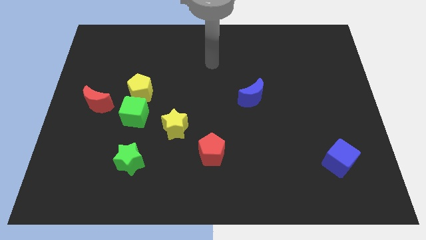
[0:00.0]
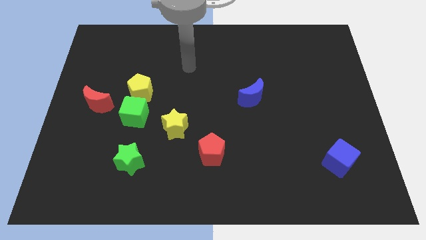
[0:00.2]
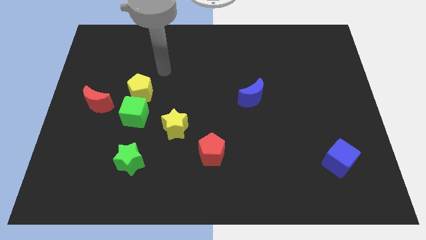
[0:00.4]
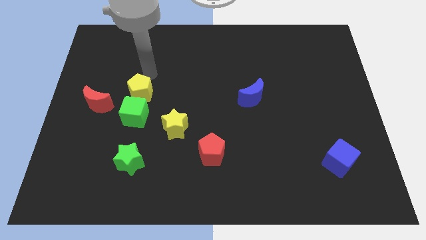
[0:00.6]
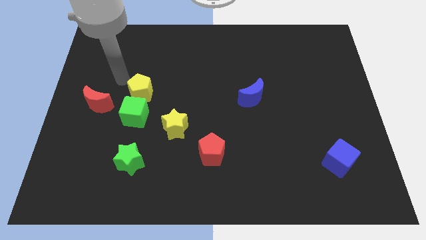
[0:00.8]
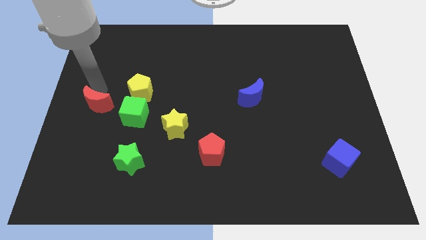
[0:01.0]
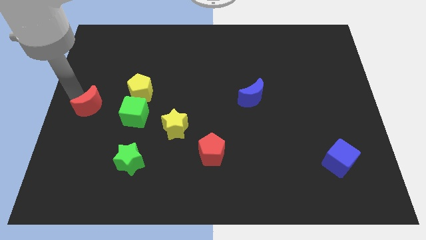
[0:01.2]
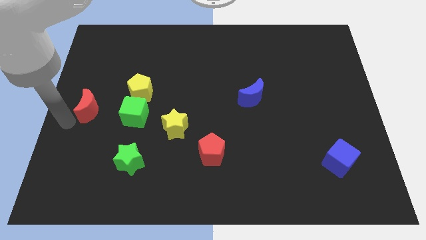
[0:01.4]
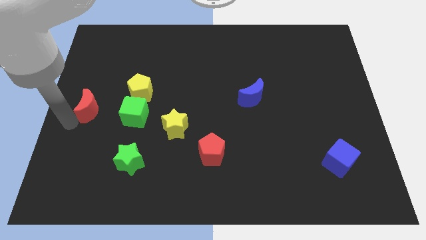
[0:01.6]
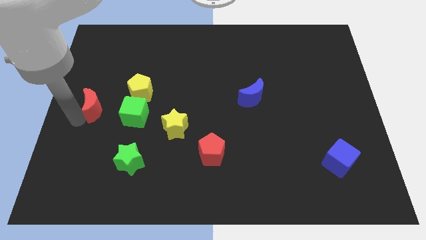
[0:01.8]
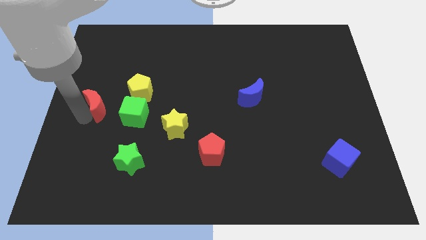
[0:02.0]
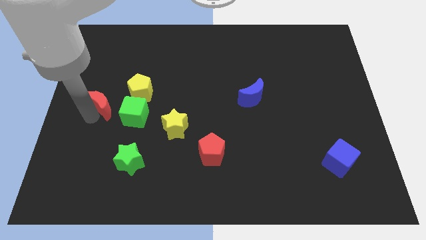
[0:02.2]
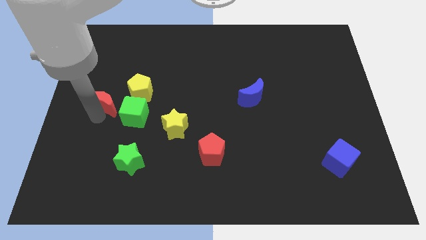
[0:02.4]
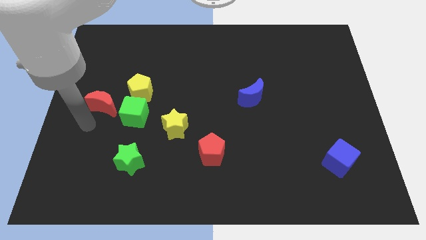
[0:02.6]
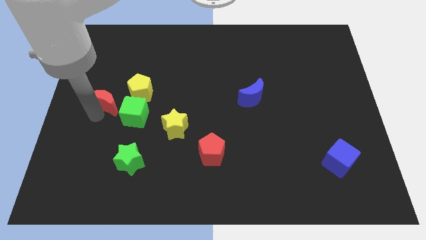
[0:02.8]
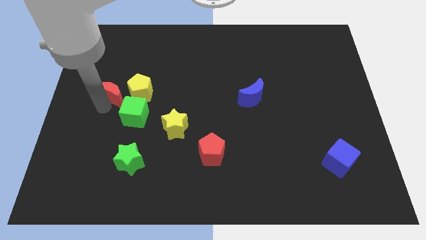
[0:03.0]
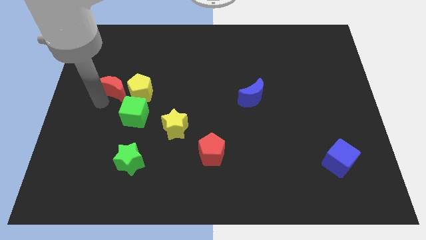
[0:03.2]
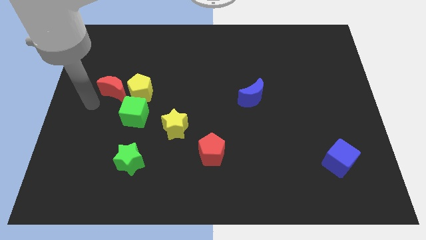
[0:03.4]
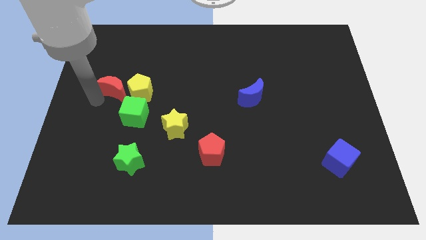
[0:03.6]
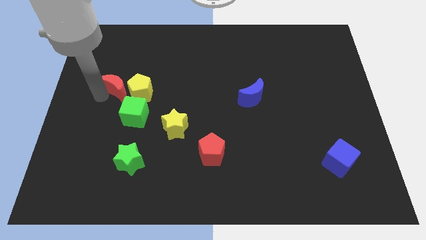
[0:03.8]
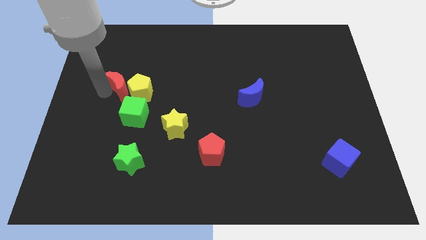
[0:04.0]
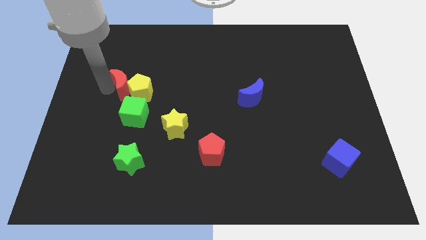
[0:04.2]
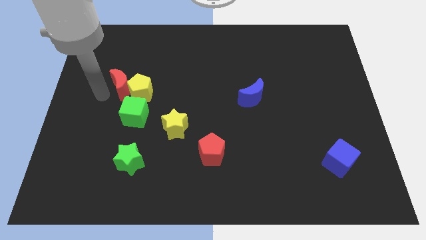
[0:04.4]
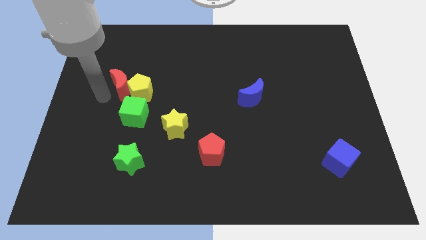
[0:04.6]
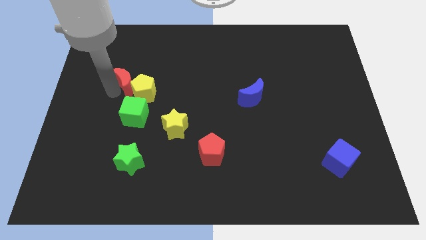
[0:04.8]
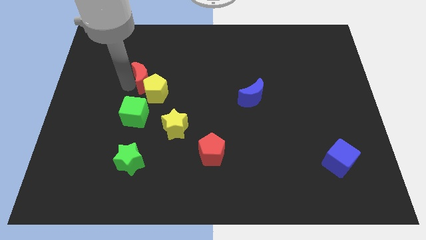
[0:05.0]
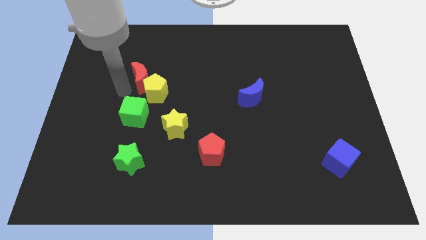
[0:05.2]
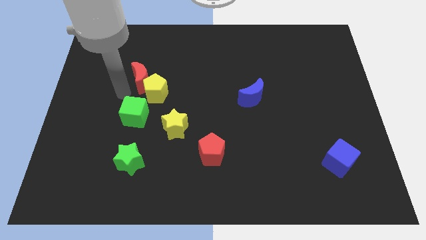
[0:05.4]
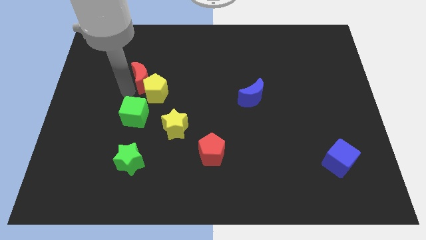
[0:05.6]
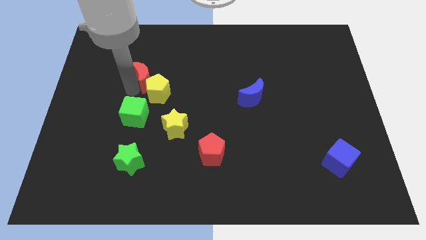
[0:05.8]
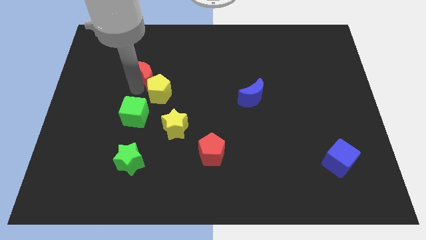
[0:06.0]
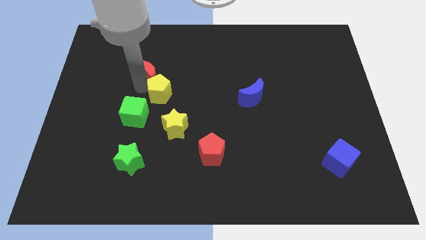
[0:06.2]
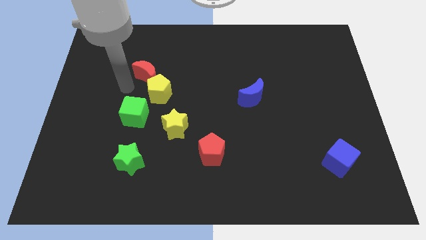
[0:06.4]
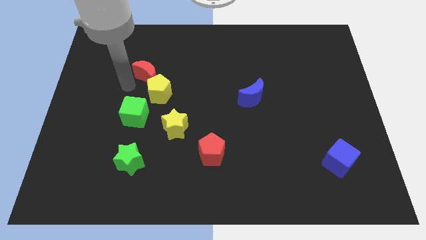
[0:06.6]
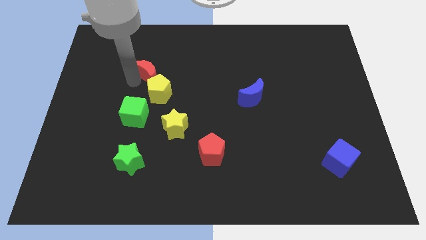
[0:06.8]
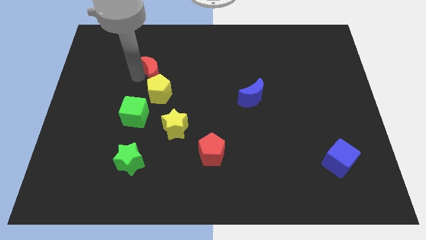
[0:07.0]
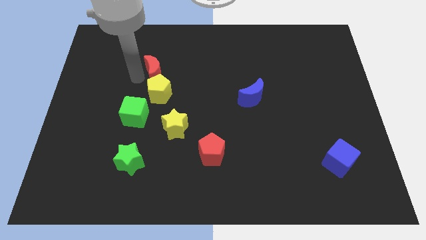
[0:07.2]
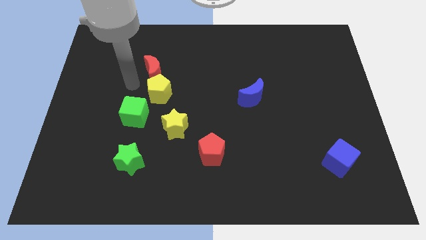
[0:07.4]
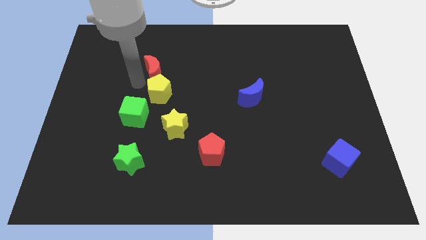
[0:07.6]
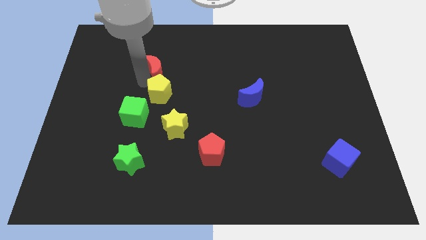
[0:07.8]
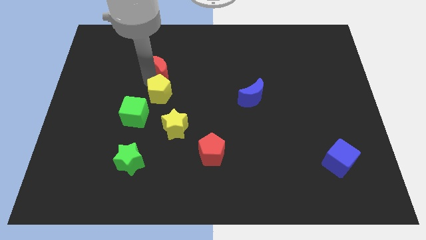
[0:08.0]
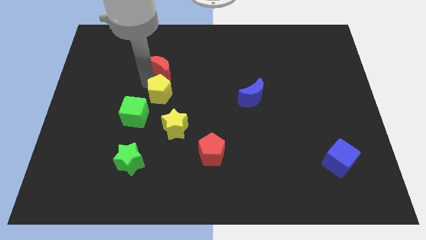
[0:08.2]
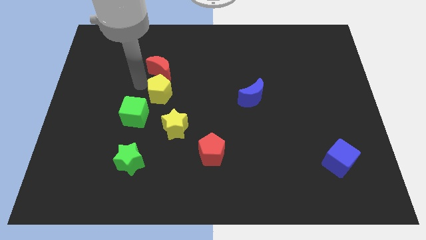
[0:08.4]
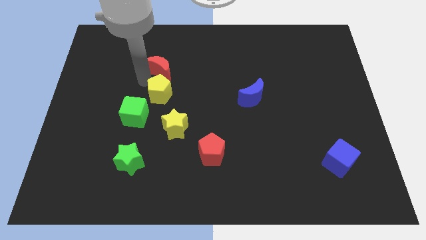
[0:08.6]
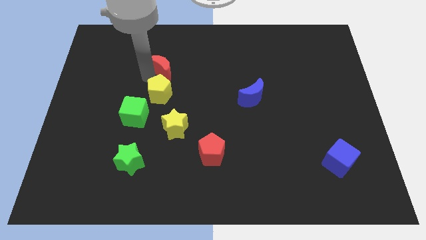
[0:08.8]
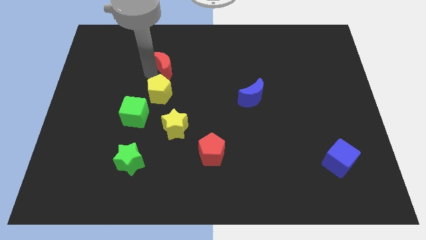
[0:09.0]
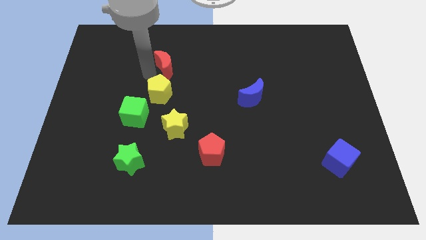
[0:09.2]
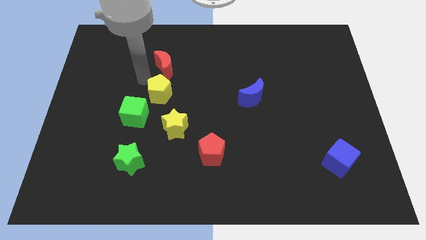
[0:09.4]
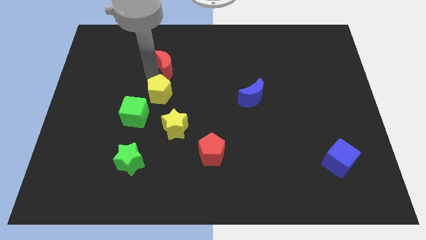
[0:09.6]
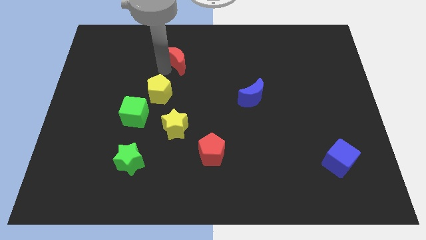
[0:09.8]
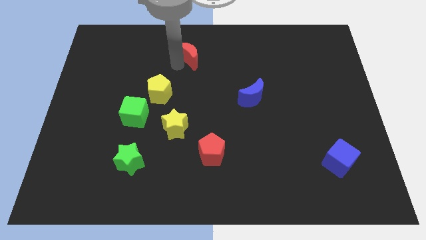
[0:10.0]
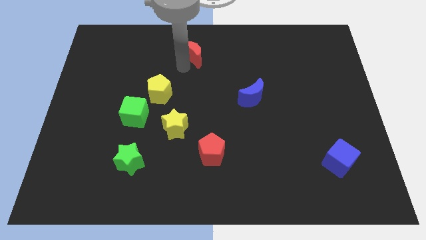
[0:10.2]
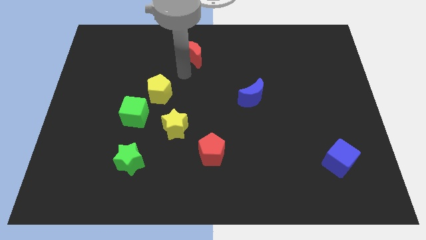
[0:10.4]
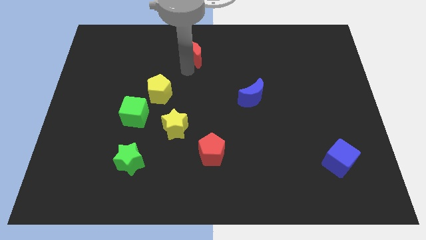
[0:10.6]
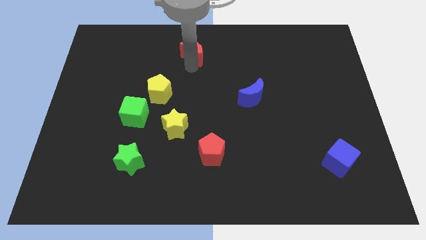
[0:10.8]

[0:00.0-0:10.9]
put the red moon to the top

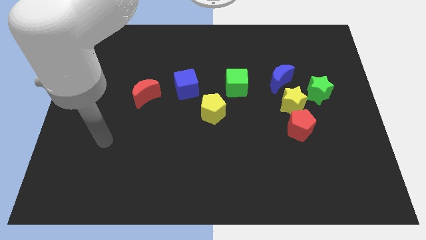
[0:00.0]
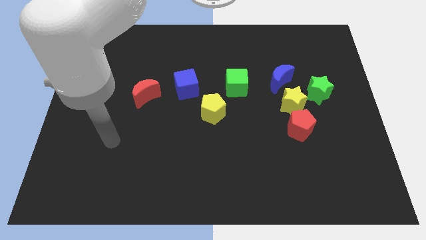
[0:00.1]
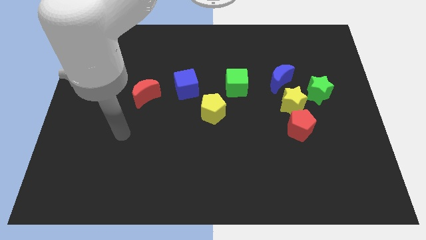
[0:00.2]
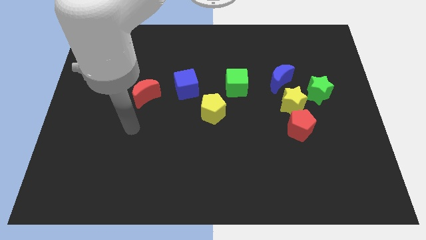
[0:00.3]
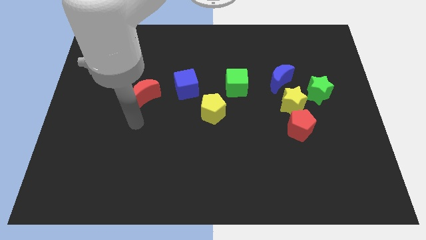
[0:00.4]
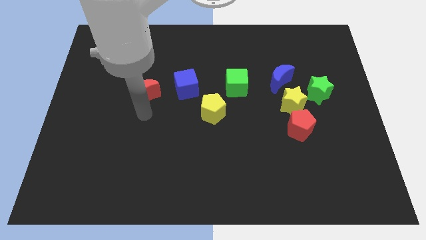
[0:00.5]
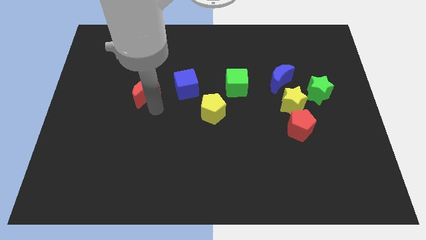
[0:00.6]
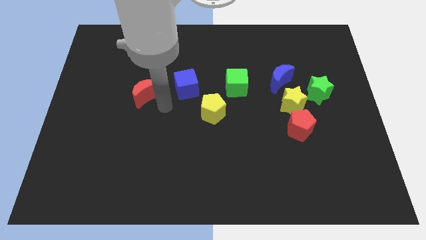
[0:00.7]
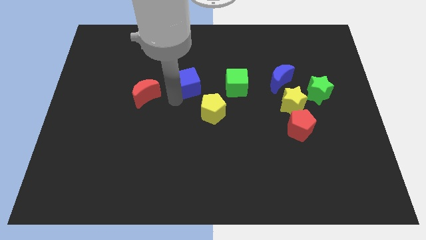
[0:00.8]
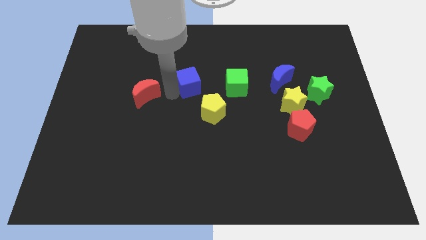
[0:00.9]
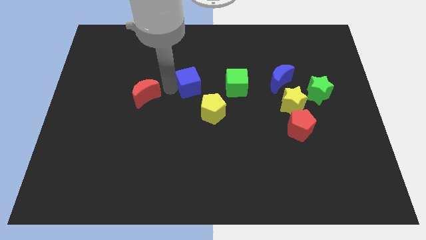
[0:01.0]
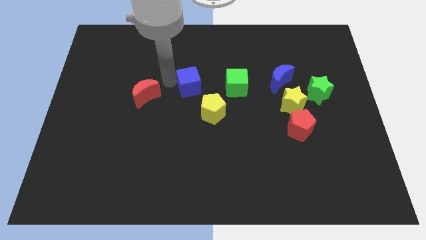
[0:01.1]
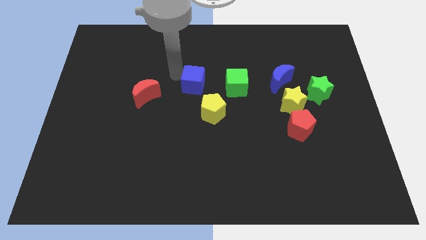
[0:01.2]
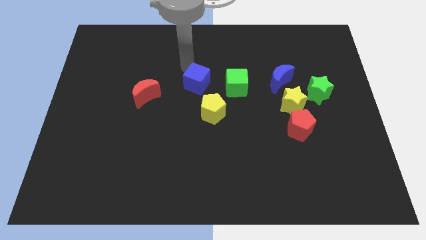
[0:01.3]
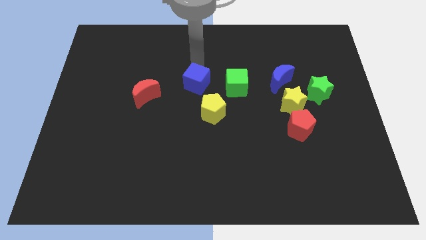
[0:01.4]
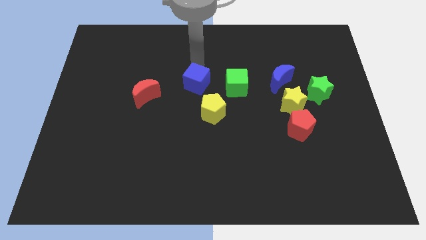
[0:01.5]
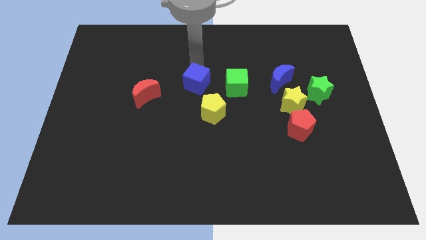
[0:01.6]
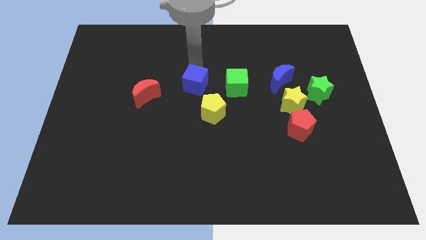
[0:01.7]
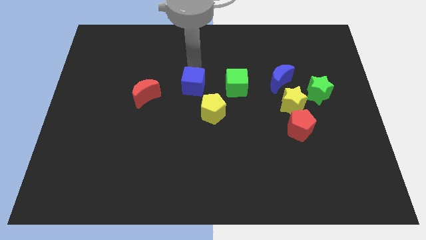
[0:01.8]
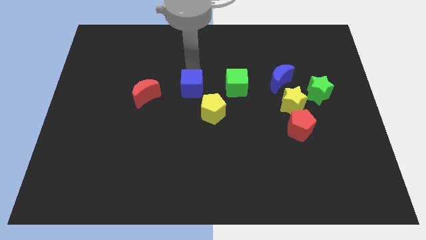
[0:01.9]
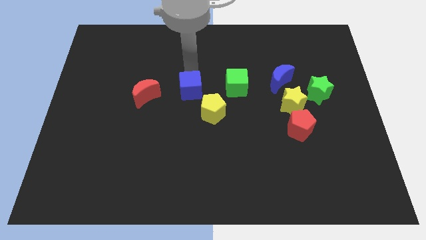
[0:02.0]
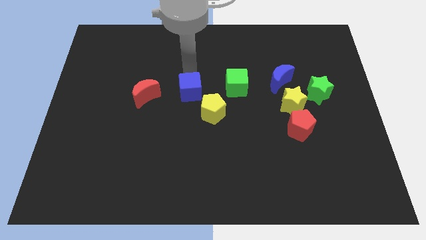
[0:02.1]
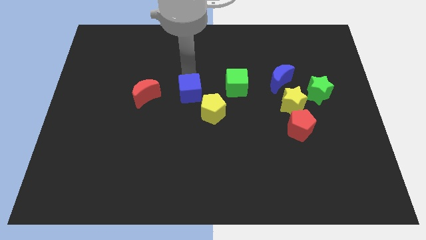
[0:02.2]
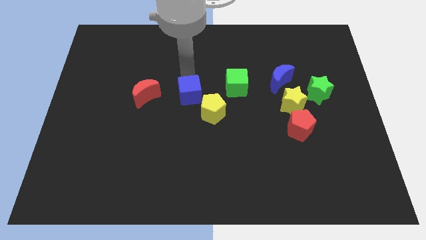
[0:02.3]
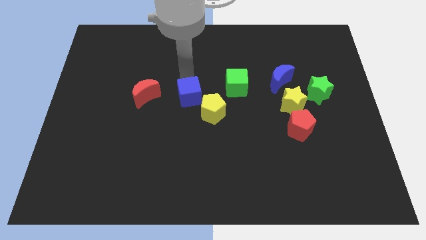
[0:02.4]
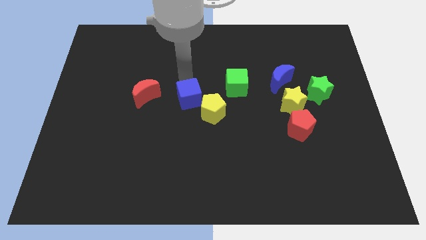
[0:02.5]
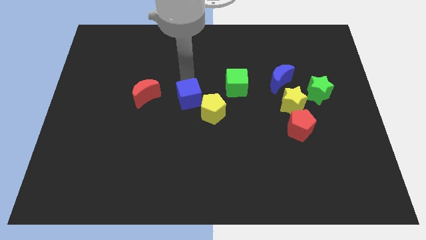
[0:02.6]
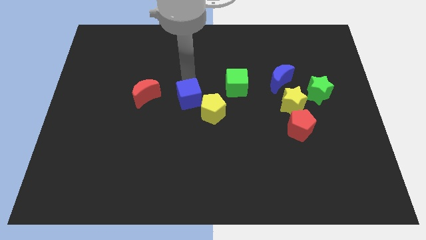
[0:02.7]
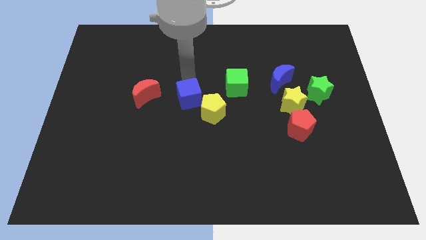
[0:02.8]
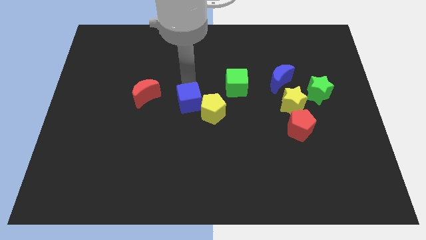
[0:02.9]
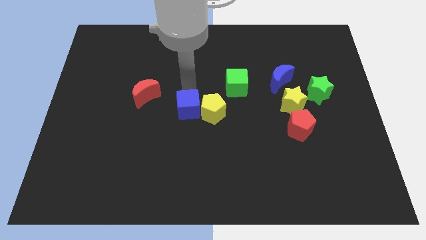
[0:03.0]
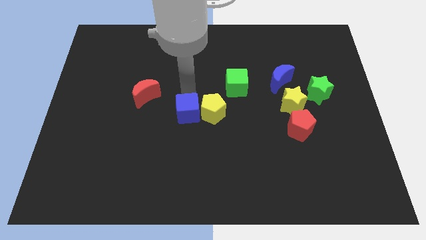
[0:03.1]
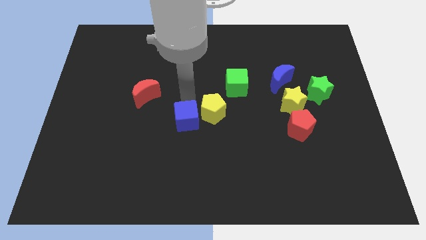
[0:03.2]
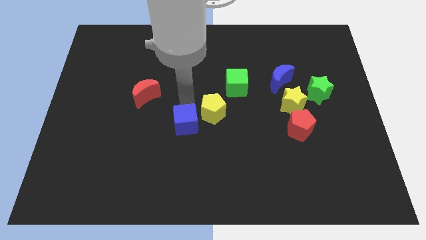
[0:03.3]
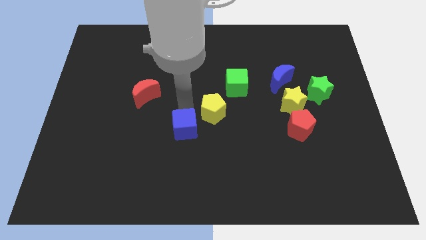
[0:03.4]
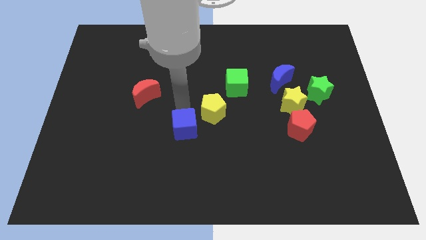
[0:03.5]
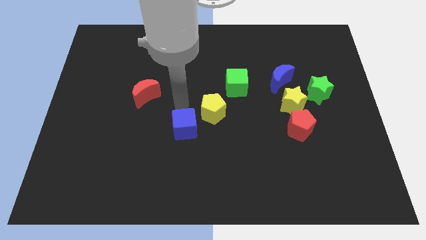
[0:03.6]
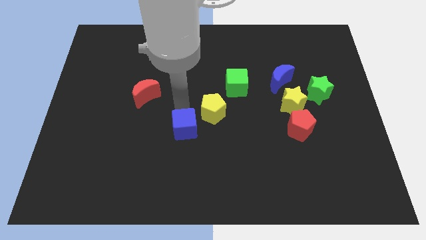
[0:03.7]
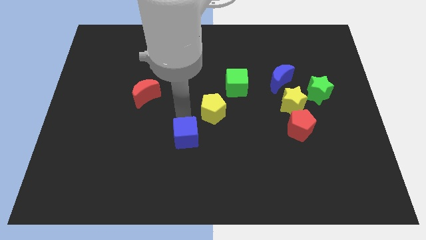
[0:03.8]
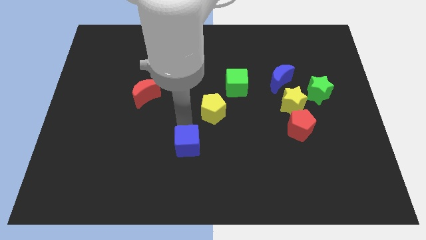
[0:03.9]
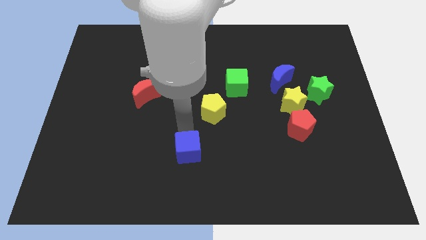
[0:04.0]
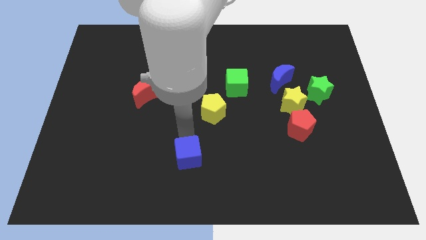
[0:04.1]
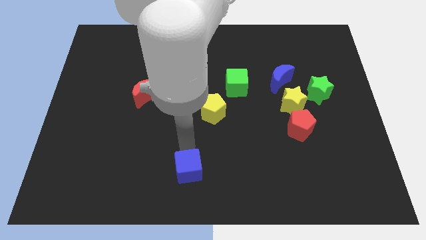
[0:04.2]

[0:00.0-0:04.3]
move the blue cube to the bottom
